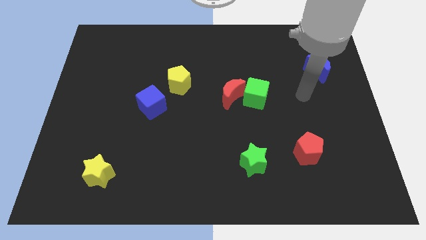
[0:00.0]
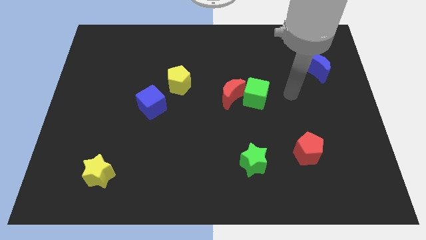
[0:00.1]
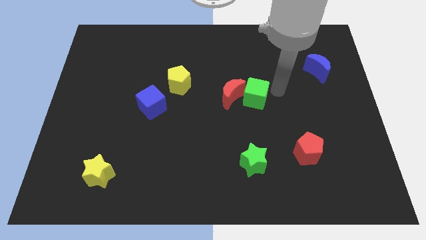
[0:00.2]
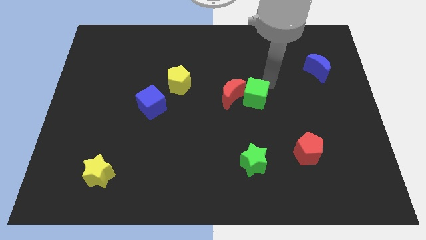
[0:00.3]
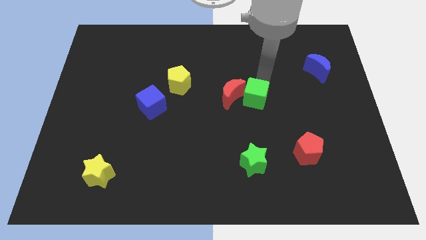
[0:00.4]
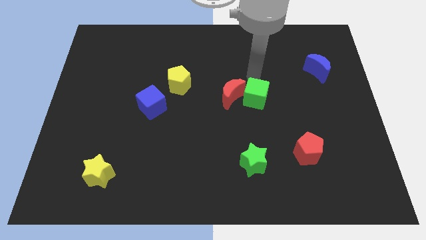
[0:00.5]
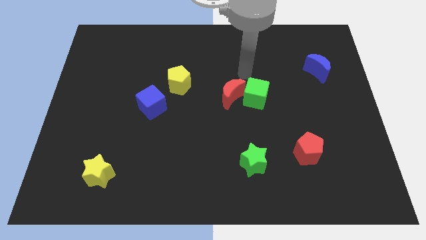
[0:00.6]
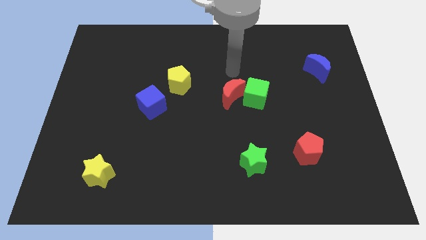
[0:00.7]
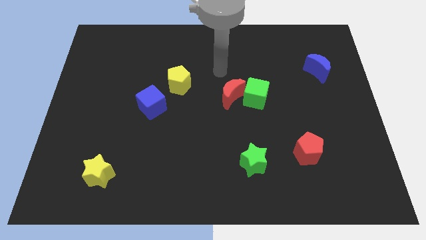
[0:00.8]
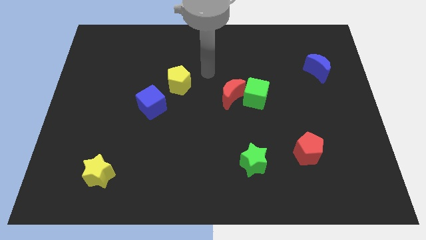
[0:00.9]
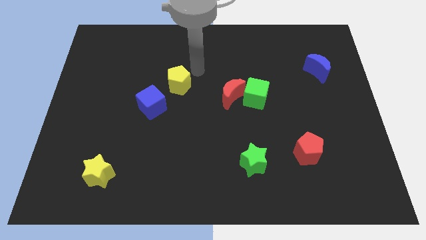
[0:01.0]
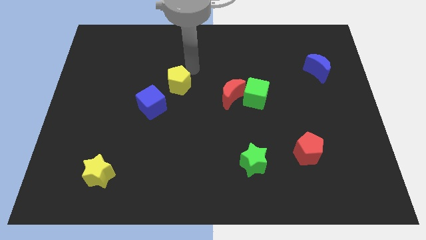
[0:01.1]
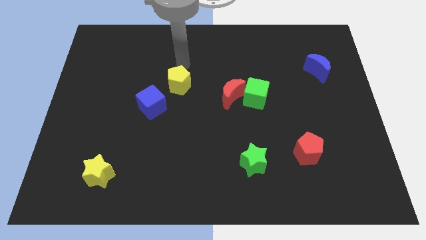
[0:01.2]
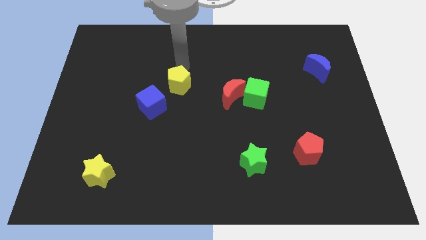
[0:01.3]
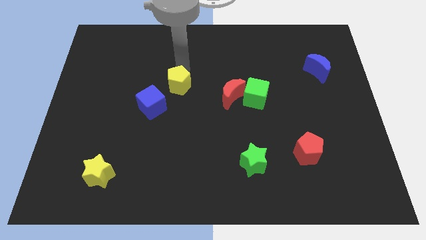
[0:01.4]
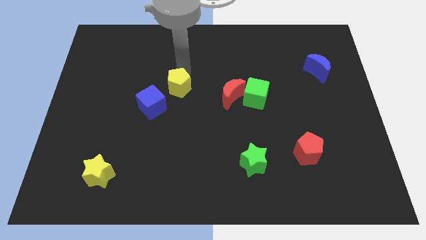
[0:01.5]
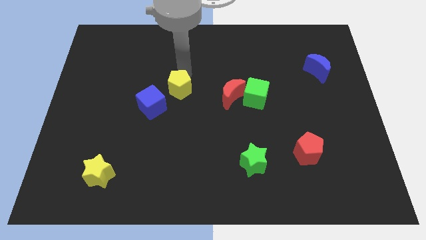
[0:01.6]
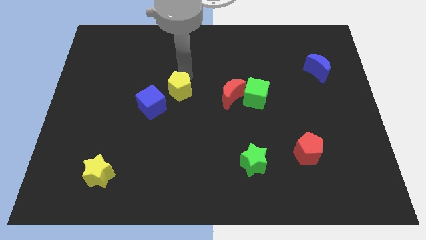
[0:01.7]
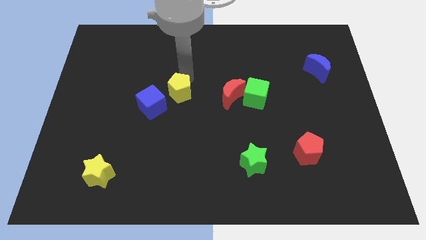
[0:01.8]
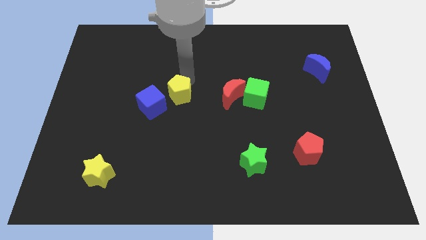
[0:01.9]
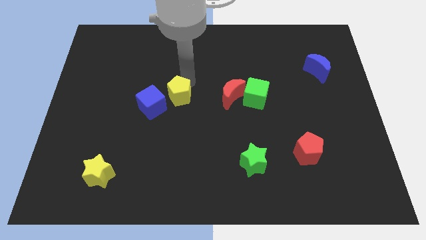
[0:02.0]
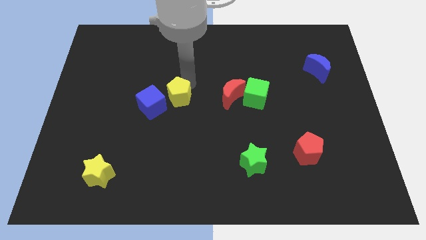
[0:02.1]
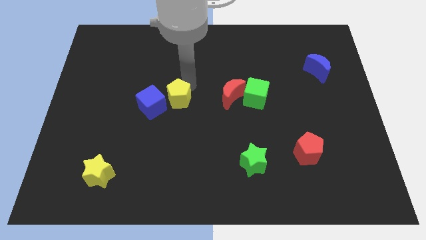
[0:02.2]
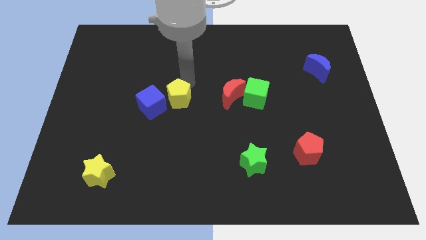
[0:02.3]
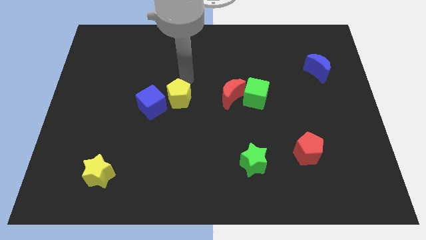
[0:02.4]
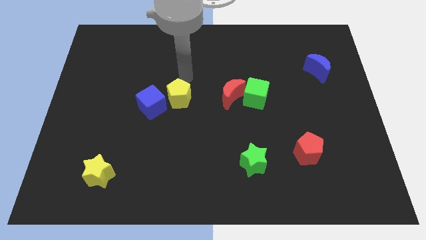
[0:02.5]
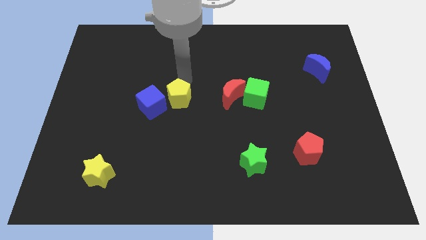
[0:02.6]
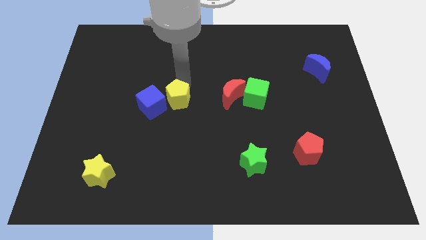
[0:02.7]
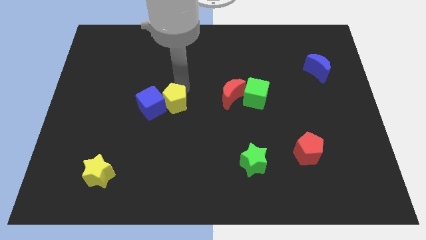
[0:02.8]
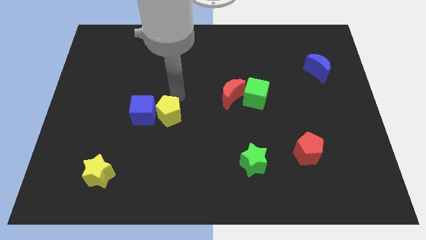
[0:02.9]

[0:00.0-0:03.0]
move the yellow pentagon down somewhat

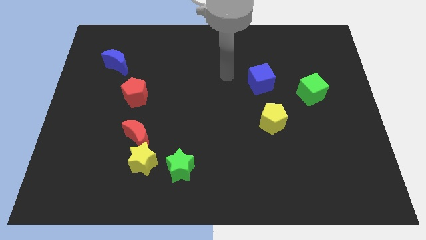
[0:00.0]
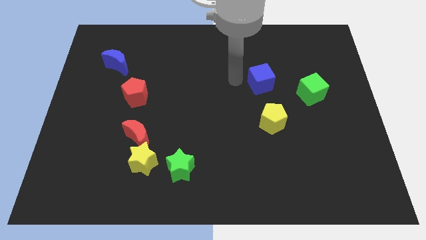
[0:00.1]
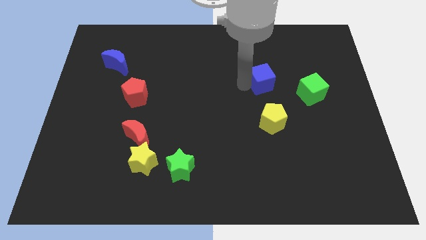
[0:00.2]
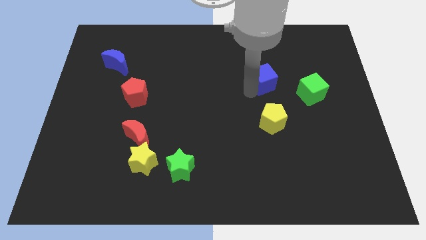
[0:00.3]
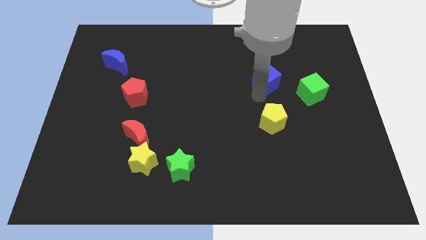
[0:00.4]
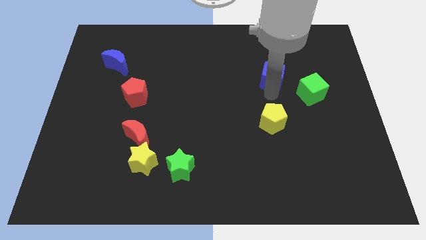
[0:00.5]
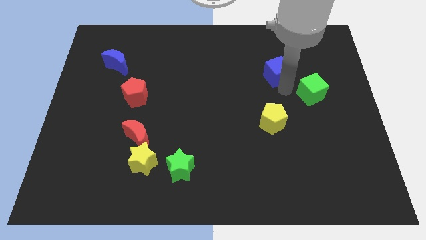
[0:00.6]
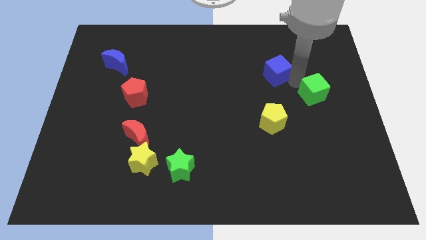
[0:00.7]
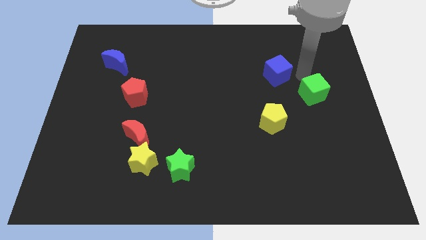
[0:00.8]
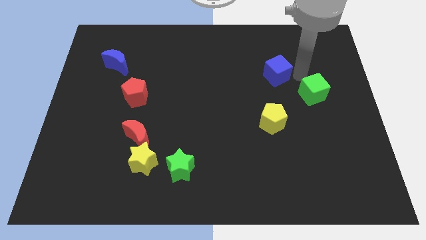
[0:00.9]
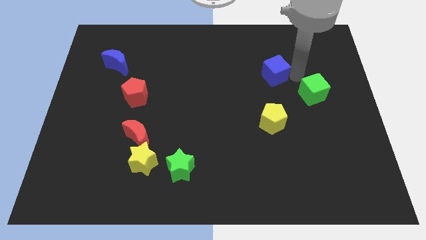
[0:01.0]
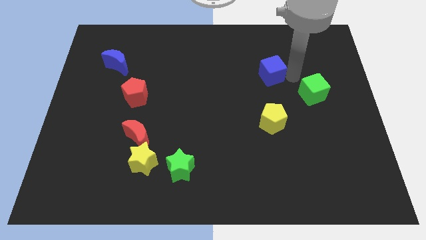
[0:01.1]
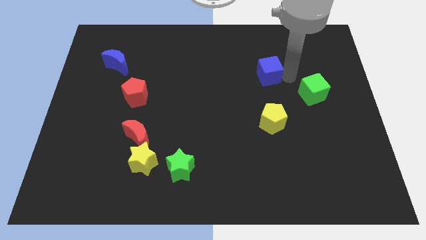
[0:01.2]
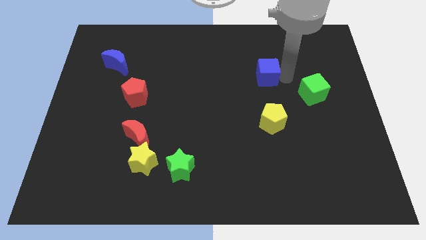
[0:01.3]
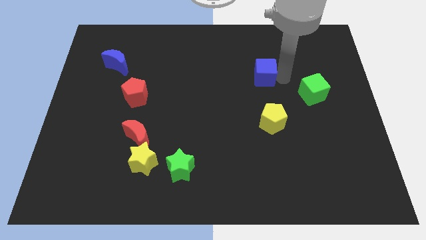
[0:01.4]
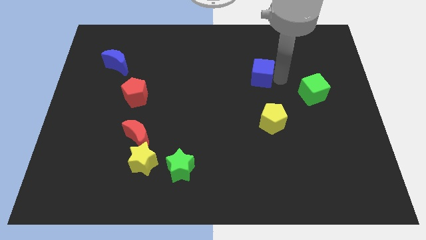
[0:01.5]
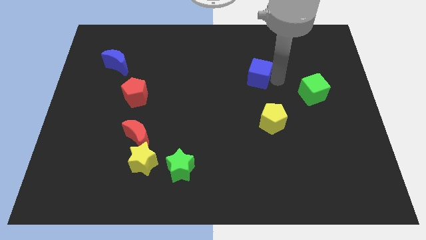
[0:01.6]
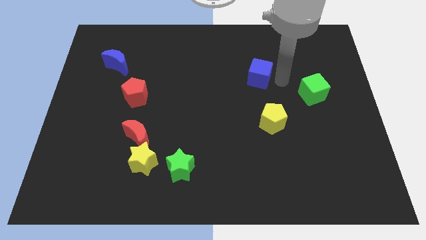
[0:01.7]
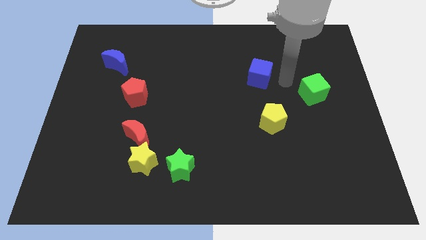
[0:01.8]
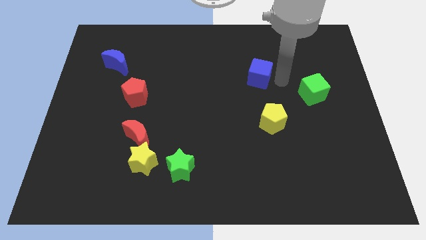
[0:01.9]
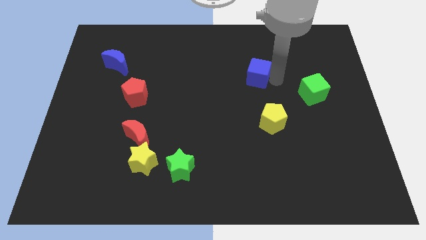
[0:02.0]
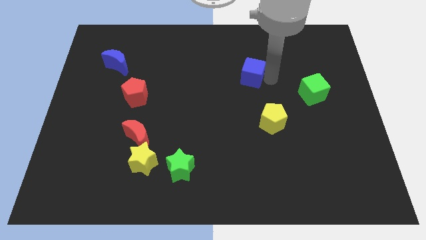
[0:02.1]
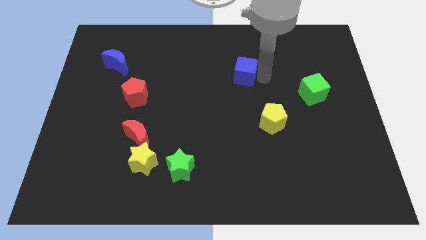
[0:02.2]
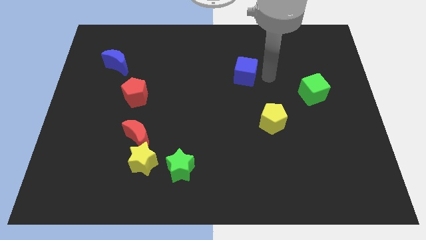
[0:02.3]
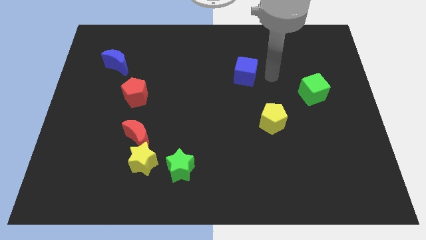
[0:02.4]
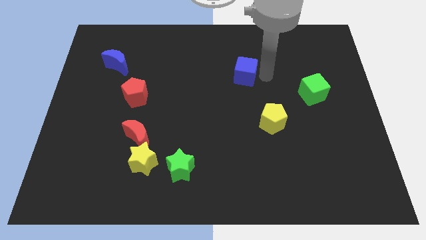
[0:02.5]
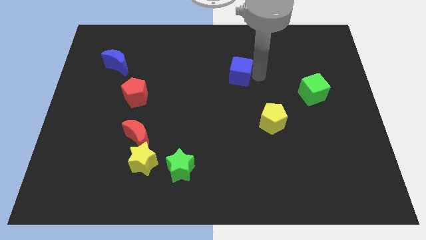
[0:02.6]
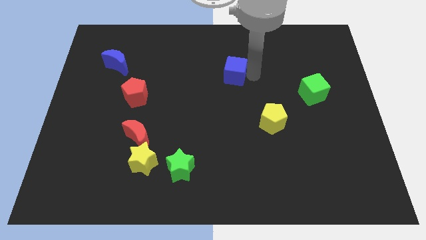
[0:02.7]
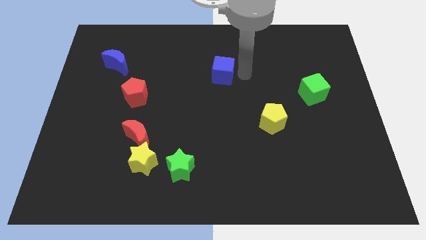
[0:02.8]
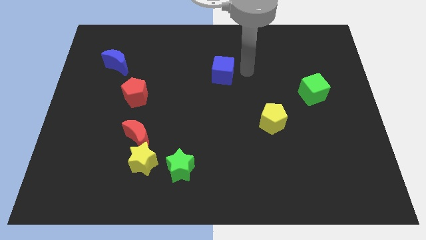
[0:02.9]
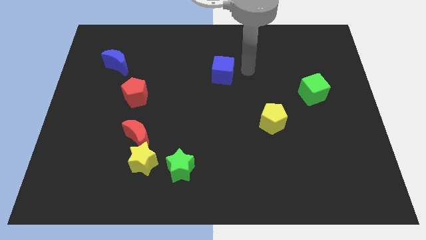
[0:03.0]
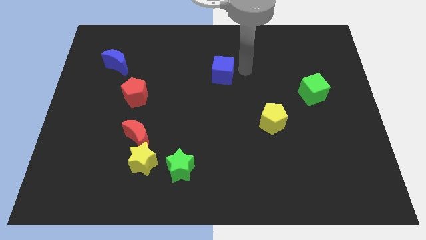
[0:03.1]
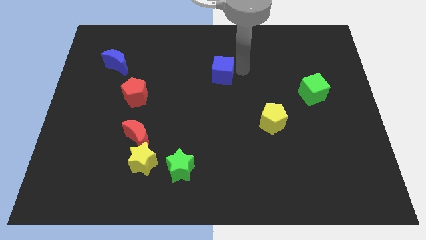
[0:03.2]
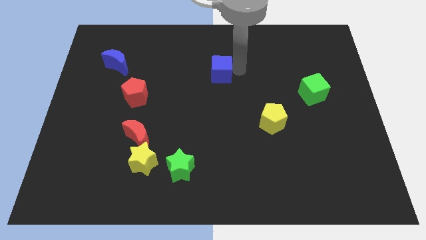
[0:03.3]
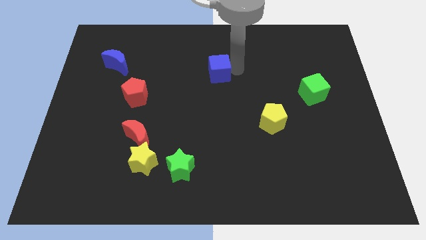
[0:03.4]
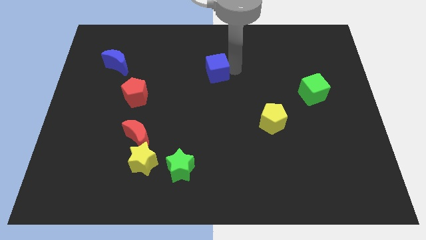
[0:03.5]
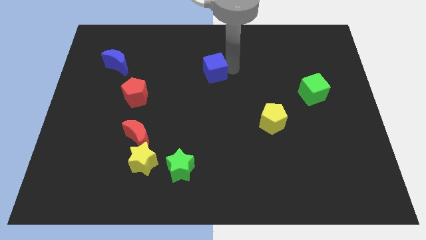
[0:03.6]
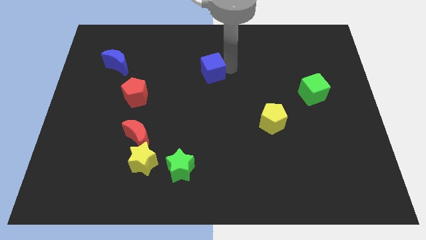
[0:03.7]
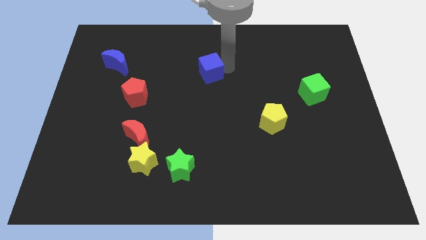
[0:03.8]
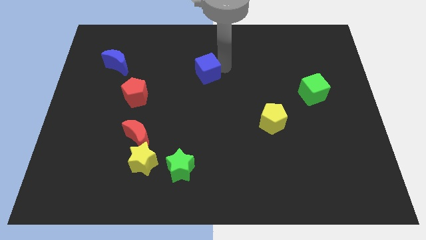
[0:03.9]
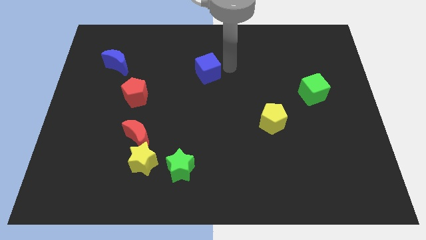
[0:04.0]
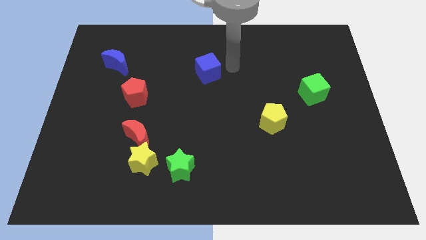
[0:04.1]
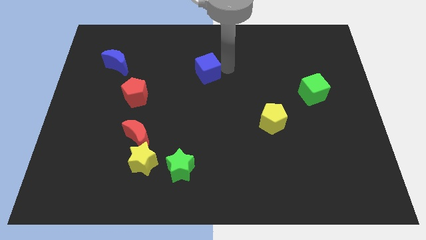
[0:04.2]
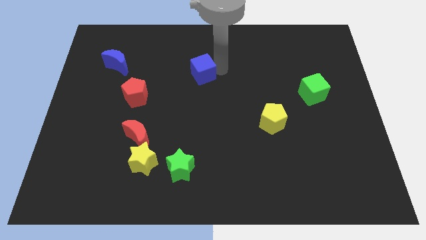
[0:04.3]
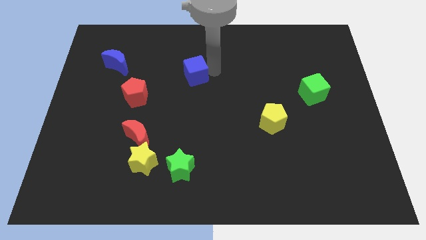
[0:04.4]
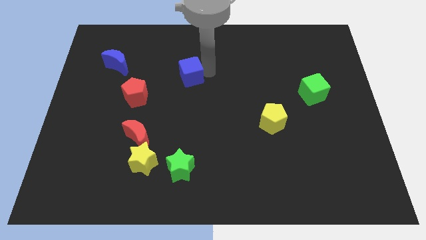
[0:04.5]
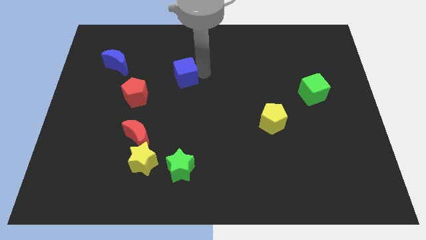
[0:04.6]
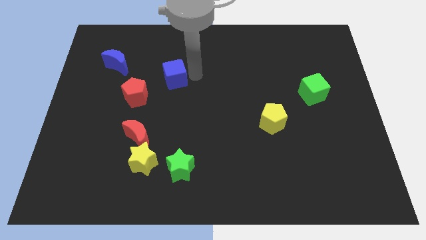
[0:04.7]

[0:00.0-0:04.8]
slide the blue cube to the left

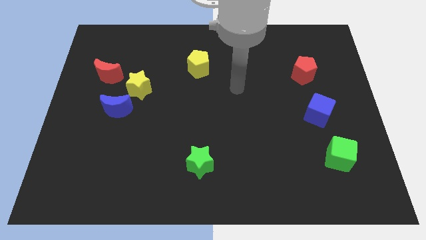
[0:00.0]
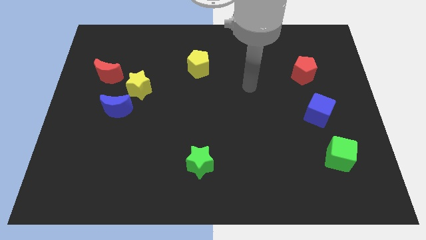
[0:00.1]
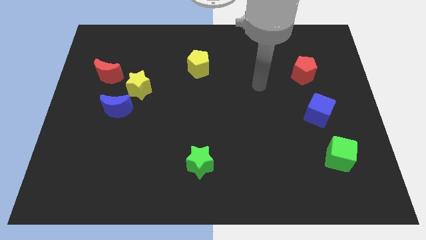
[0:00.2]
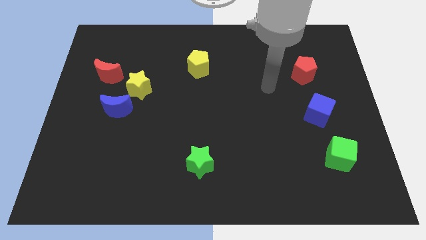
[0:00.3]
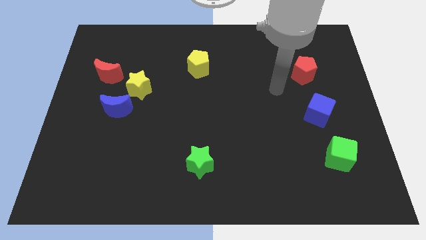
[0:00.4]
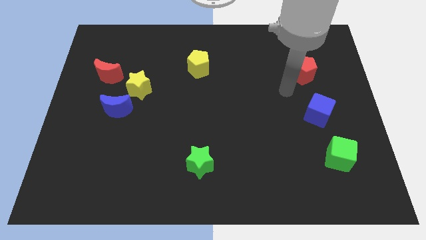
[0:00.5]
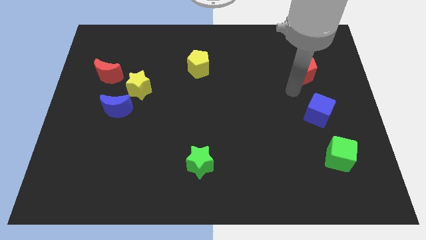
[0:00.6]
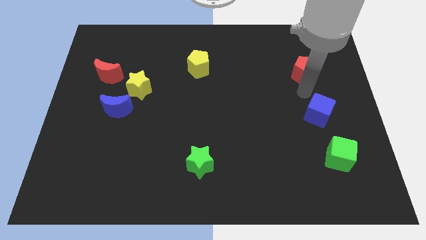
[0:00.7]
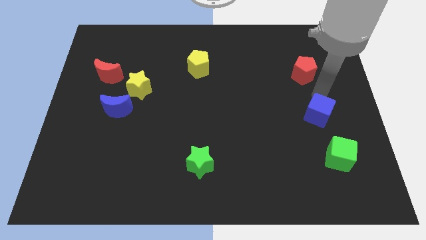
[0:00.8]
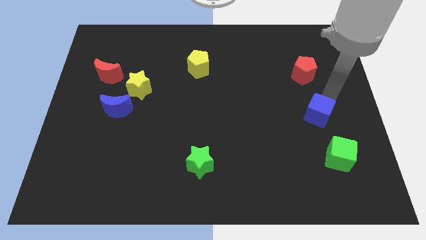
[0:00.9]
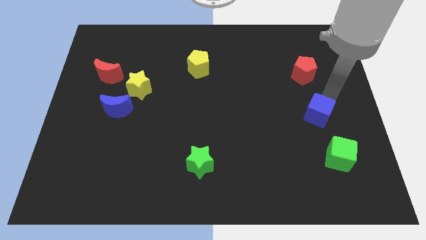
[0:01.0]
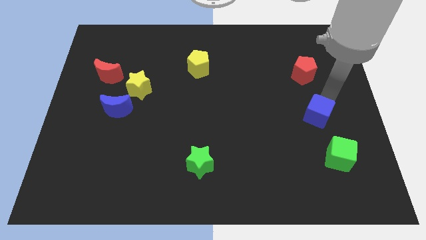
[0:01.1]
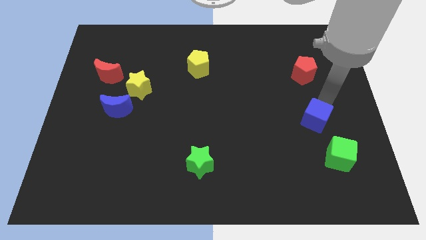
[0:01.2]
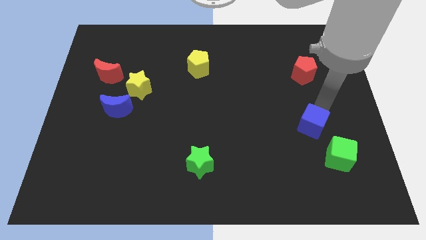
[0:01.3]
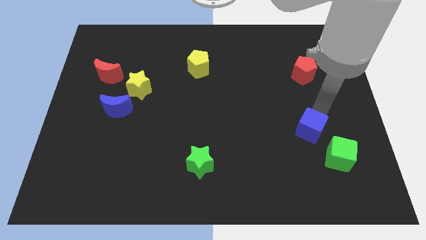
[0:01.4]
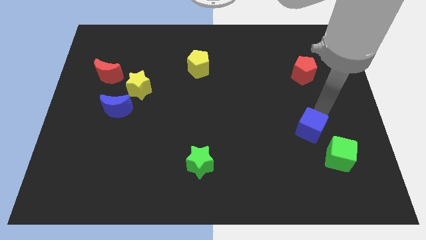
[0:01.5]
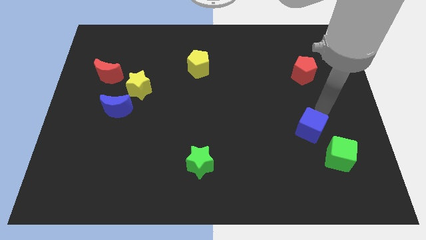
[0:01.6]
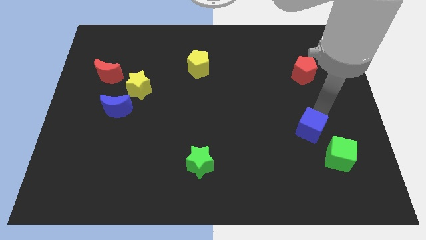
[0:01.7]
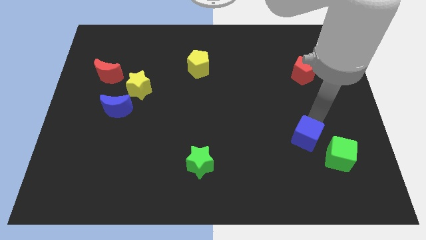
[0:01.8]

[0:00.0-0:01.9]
slightly move the blue cube down and then left
